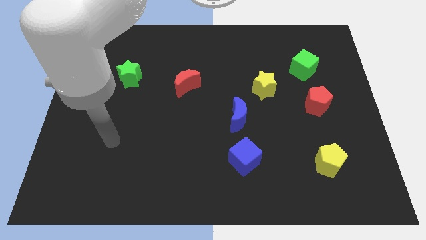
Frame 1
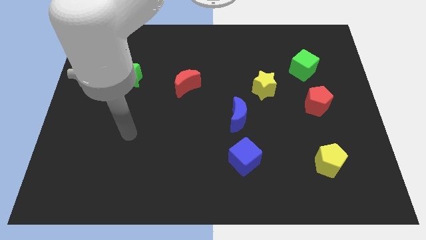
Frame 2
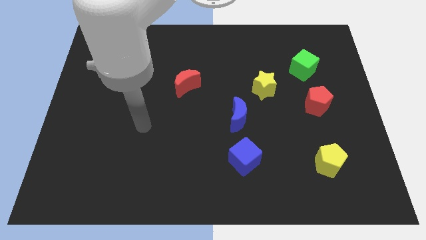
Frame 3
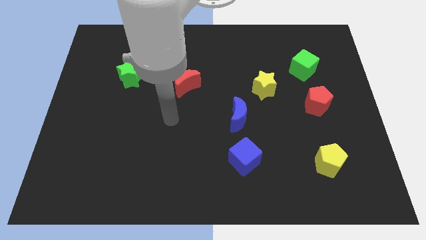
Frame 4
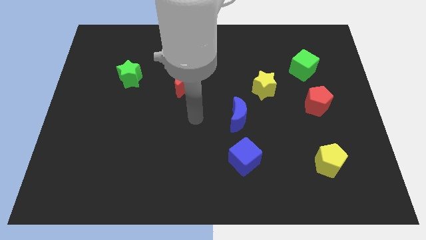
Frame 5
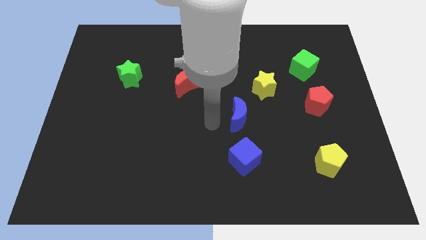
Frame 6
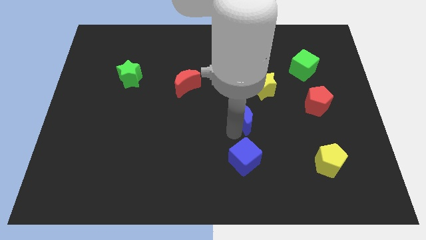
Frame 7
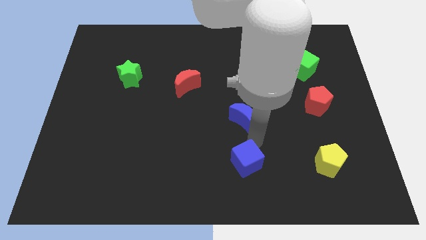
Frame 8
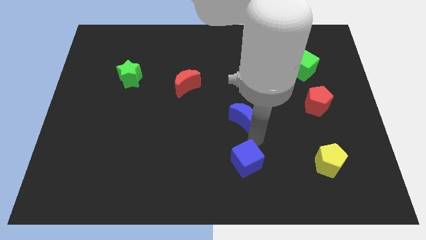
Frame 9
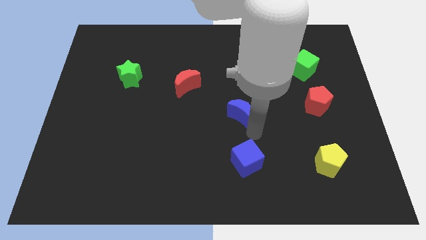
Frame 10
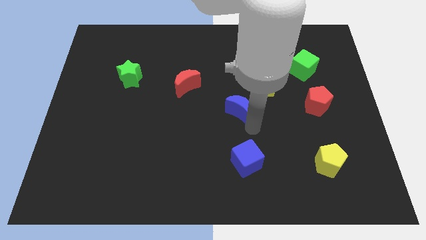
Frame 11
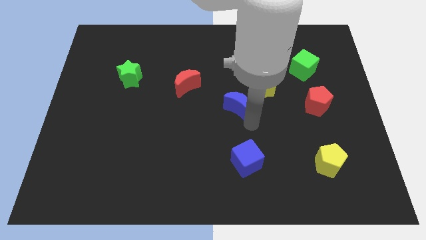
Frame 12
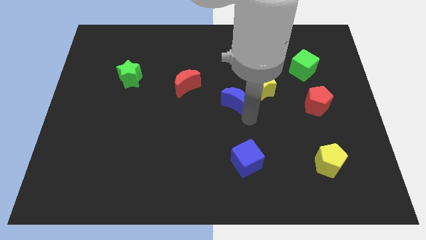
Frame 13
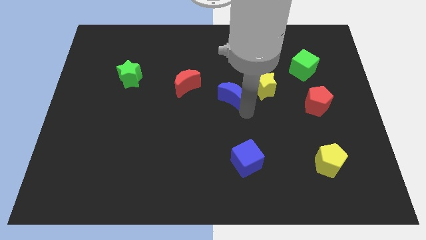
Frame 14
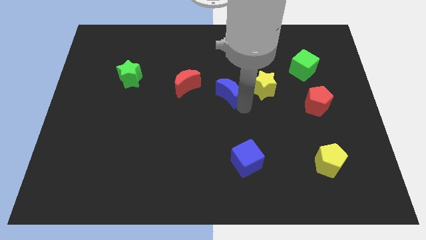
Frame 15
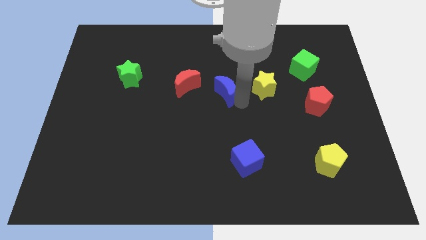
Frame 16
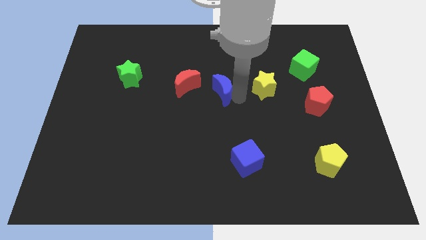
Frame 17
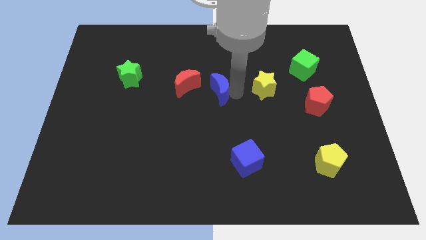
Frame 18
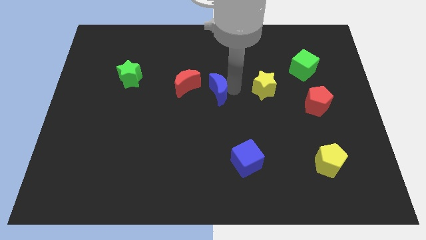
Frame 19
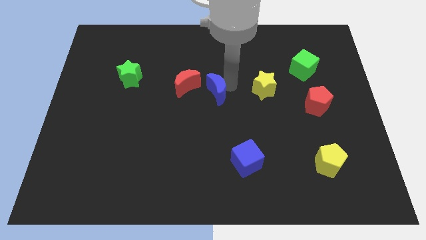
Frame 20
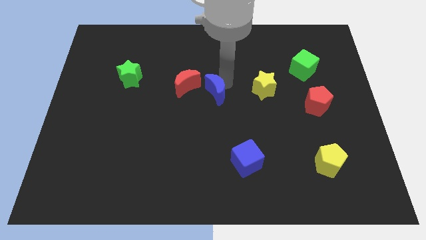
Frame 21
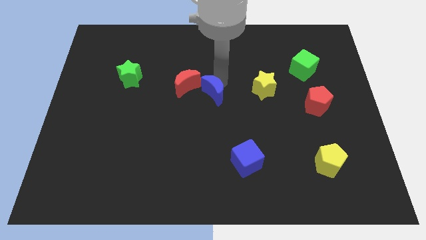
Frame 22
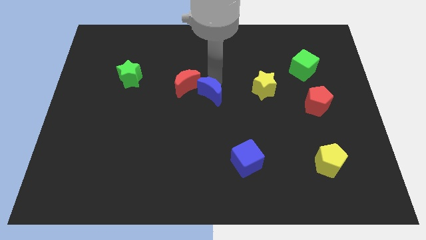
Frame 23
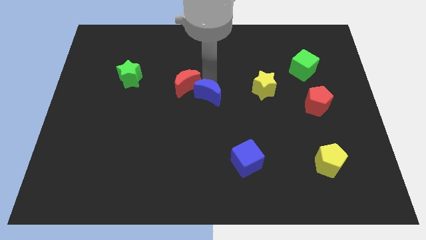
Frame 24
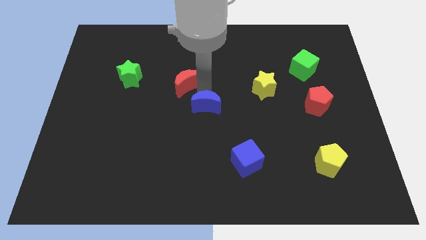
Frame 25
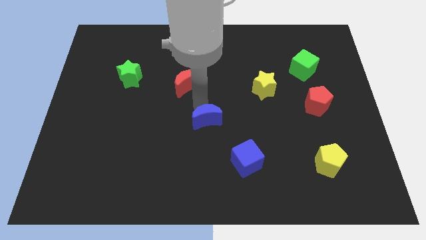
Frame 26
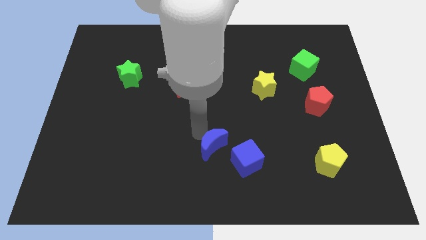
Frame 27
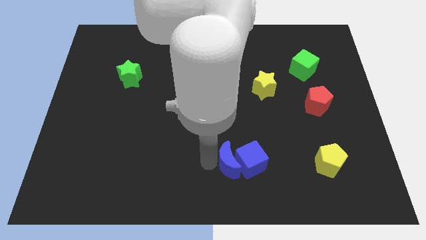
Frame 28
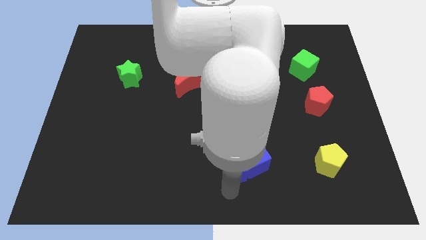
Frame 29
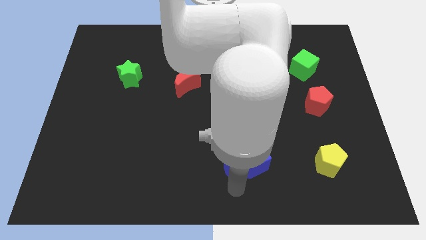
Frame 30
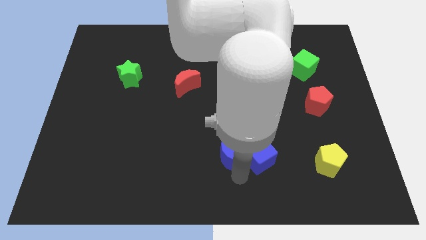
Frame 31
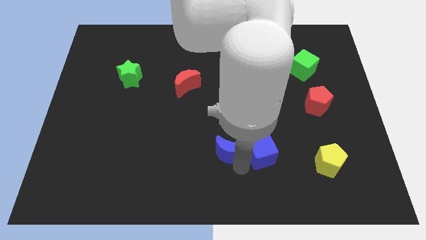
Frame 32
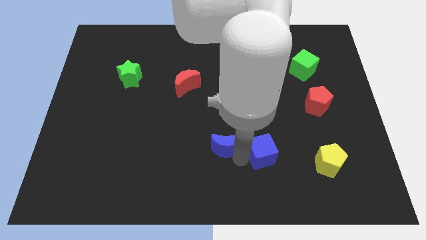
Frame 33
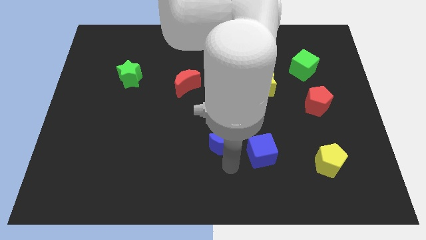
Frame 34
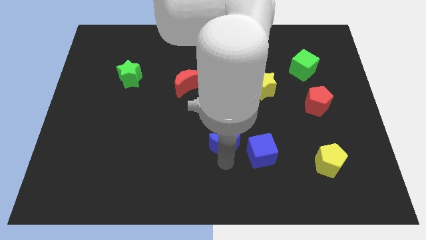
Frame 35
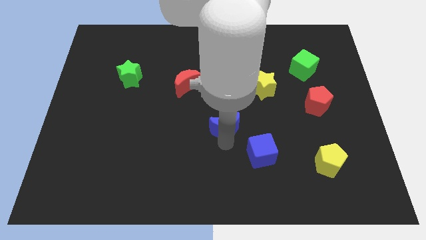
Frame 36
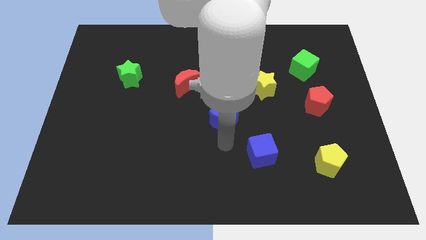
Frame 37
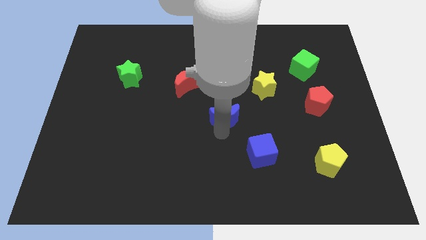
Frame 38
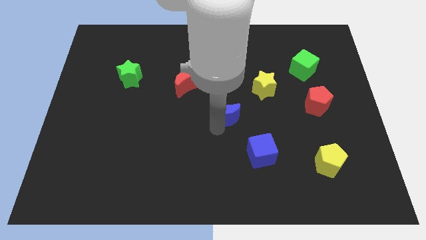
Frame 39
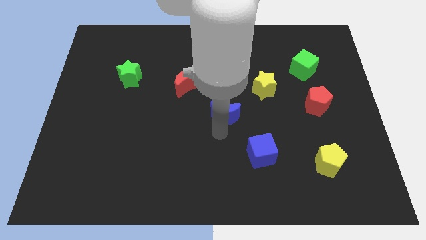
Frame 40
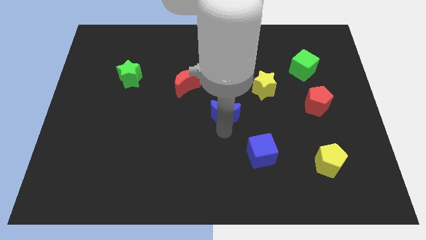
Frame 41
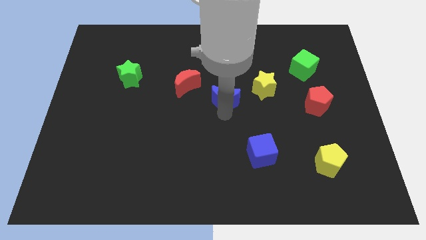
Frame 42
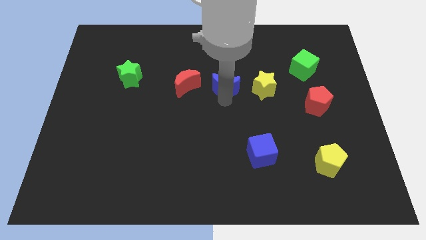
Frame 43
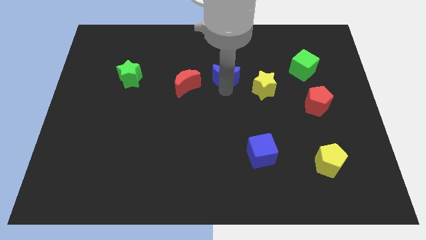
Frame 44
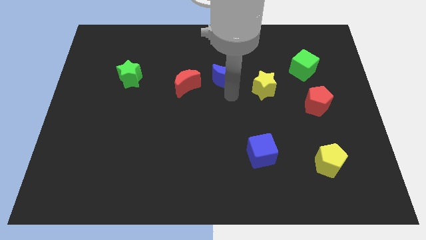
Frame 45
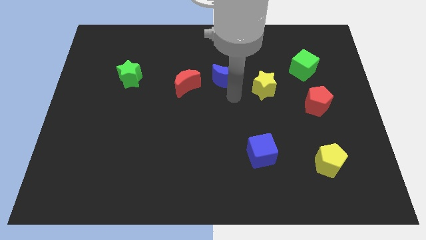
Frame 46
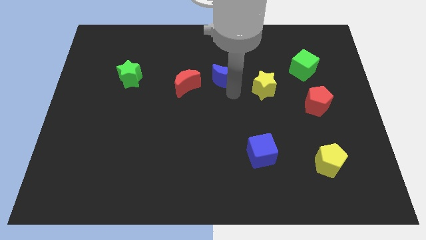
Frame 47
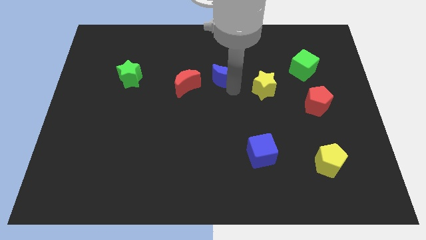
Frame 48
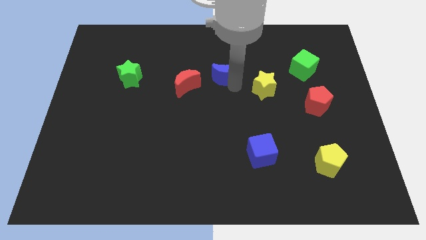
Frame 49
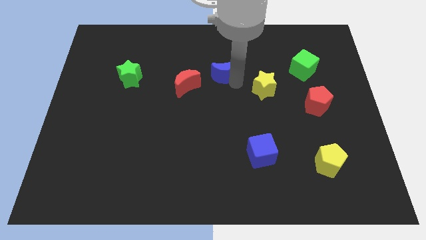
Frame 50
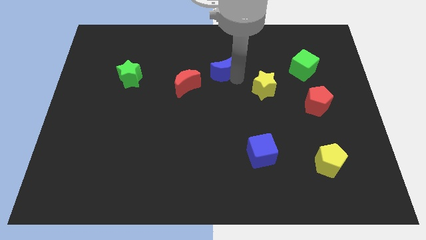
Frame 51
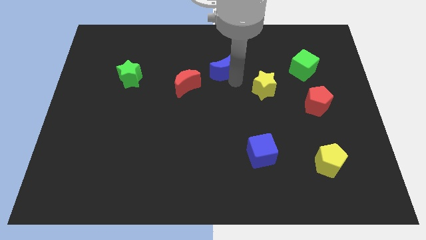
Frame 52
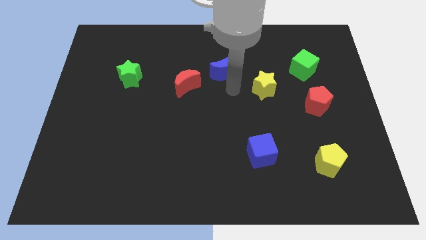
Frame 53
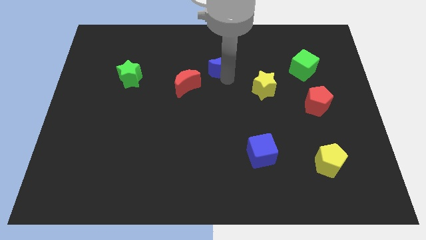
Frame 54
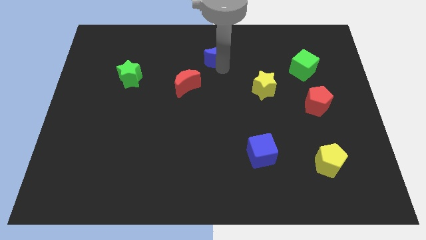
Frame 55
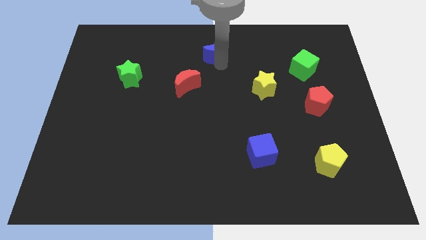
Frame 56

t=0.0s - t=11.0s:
put the blue moon to the top
